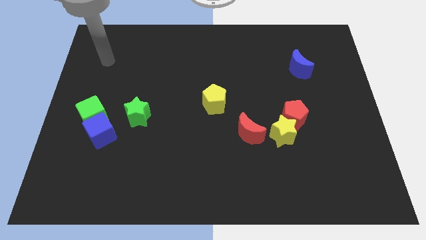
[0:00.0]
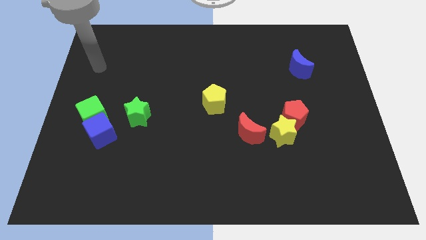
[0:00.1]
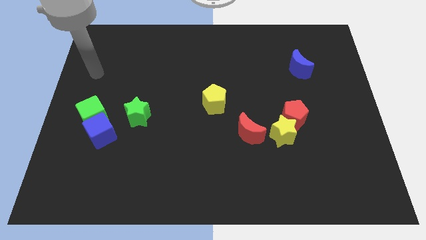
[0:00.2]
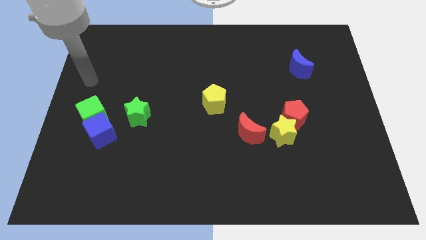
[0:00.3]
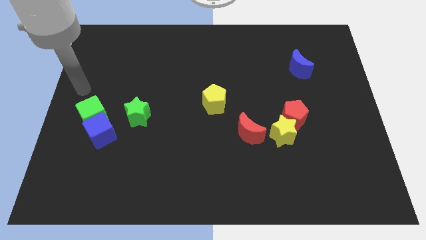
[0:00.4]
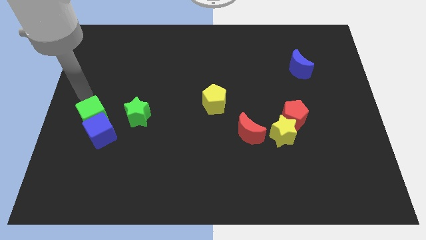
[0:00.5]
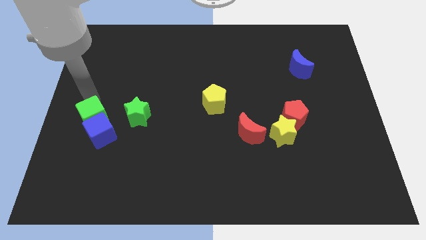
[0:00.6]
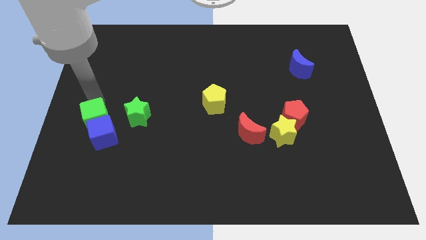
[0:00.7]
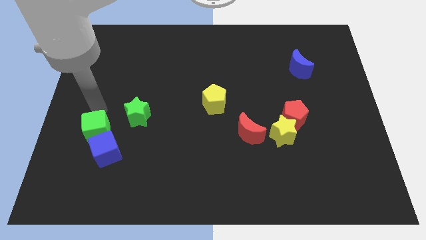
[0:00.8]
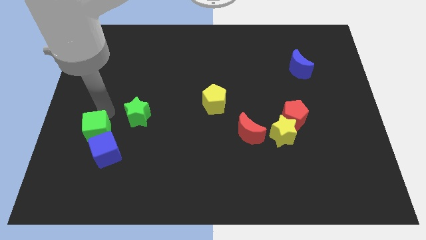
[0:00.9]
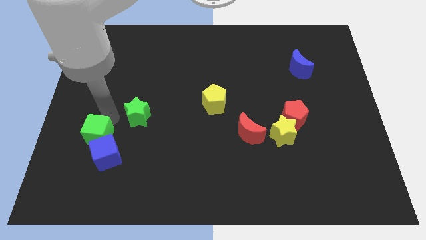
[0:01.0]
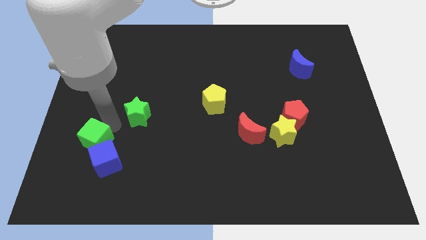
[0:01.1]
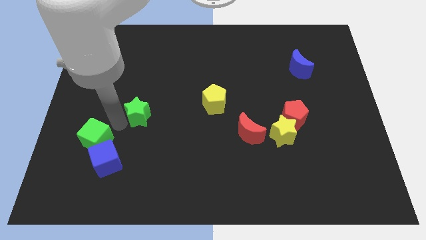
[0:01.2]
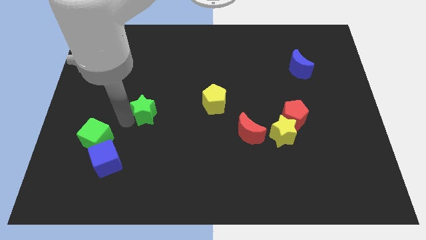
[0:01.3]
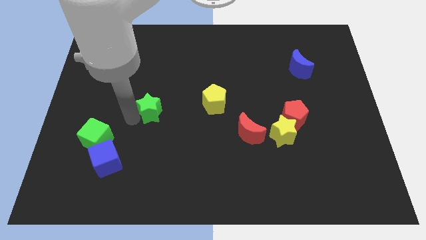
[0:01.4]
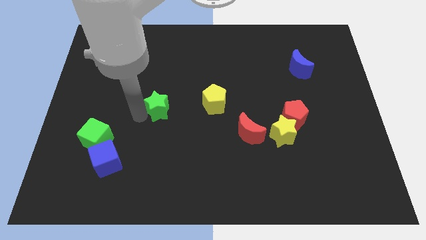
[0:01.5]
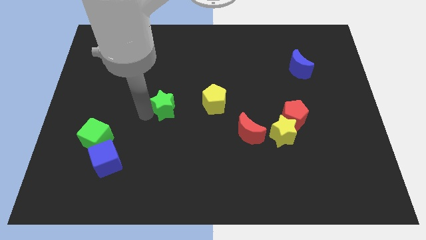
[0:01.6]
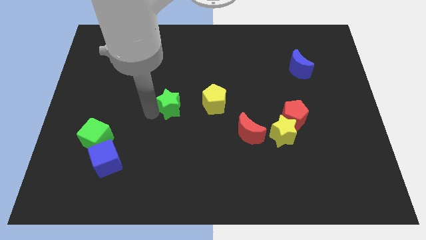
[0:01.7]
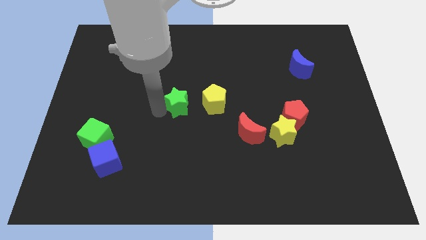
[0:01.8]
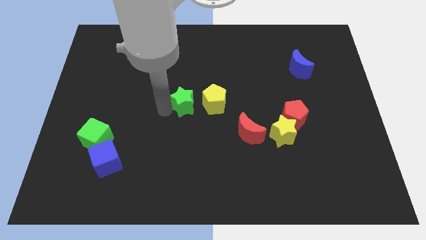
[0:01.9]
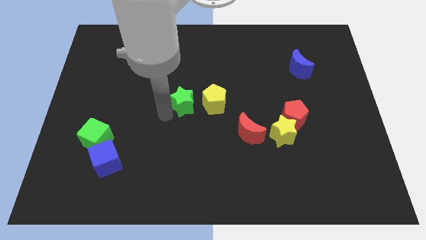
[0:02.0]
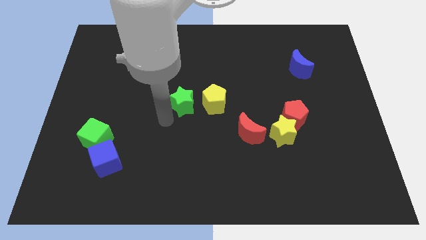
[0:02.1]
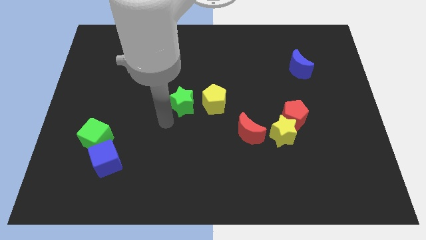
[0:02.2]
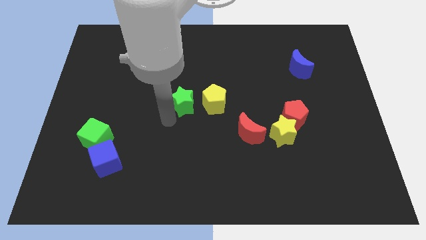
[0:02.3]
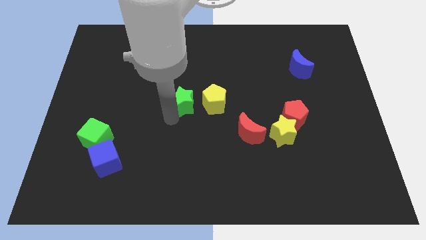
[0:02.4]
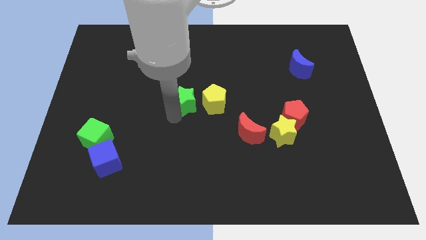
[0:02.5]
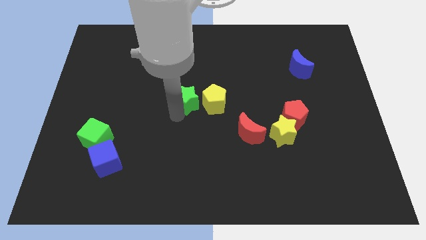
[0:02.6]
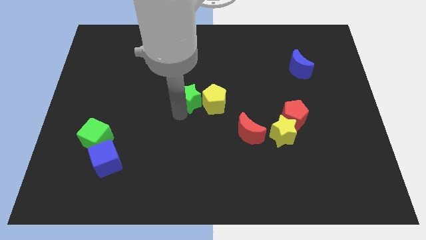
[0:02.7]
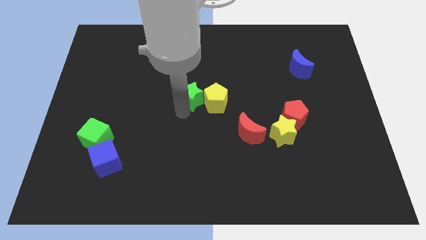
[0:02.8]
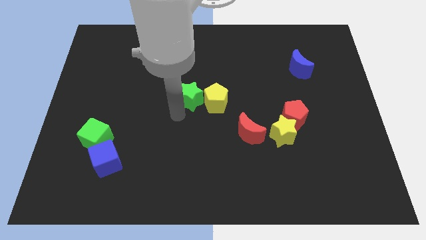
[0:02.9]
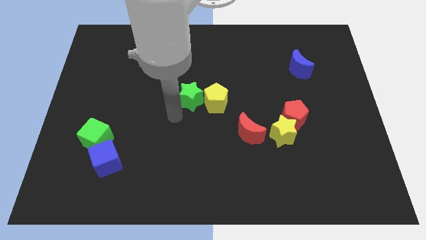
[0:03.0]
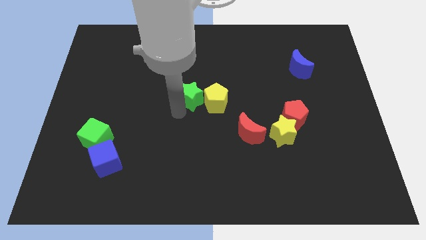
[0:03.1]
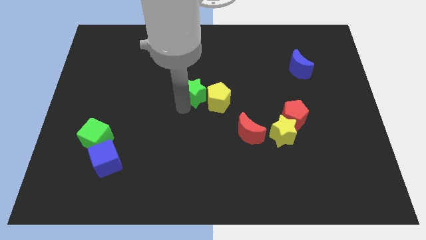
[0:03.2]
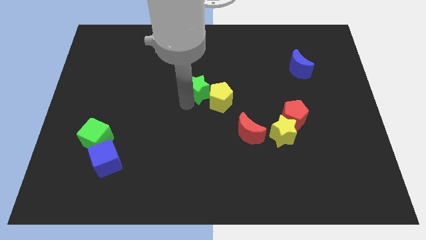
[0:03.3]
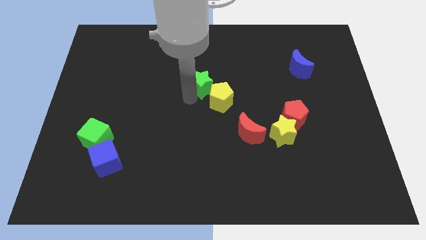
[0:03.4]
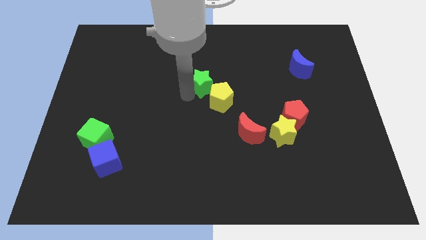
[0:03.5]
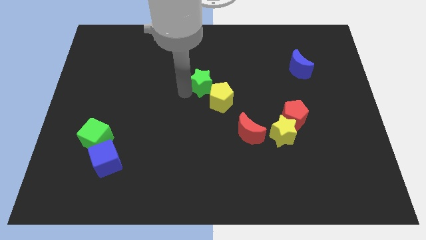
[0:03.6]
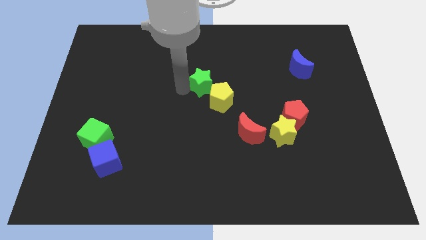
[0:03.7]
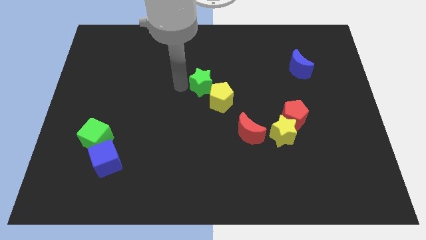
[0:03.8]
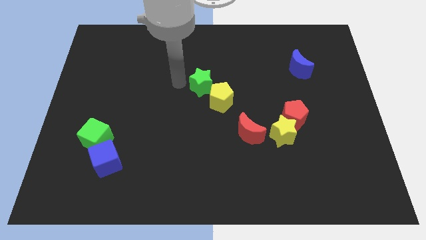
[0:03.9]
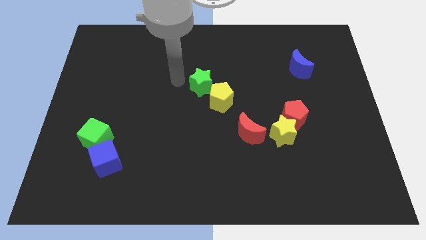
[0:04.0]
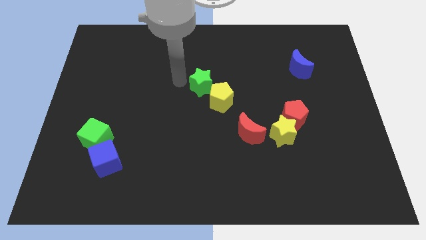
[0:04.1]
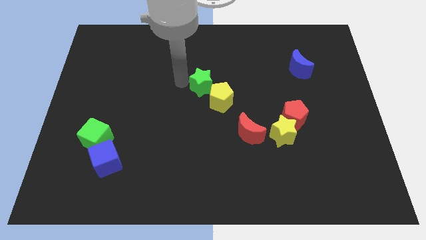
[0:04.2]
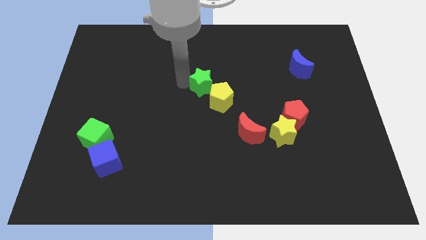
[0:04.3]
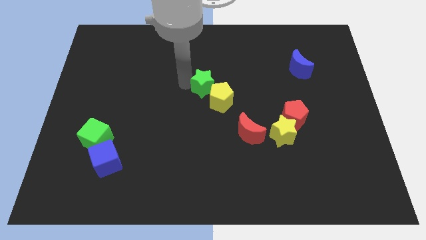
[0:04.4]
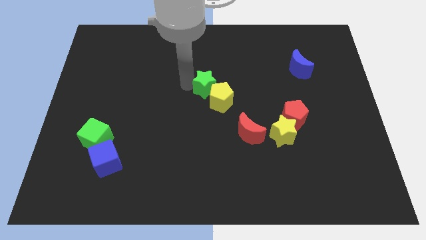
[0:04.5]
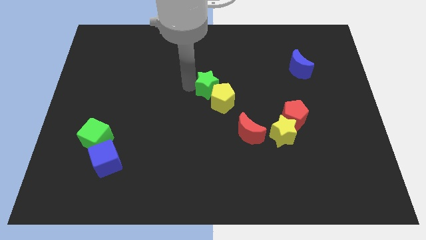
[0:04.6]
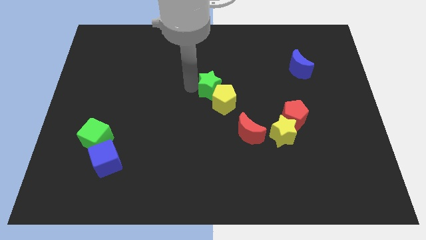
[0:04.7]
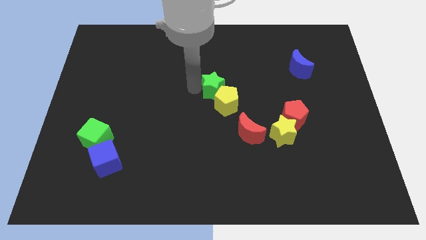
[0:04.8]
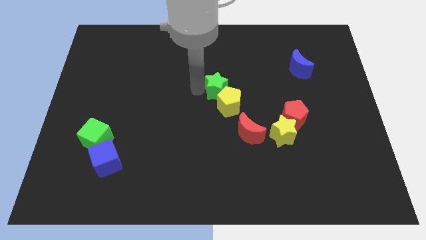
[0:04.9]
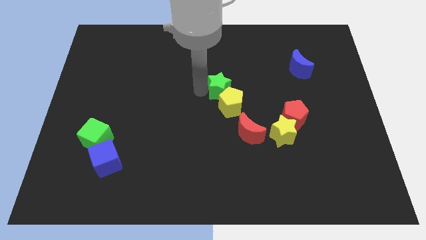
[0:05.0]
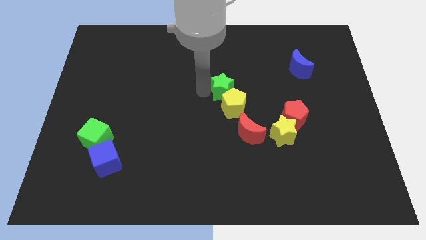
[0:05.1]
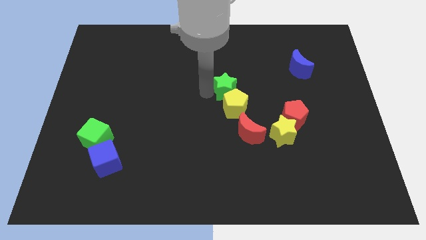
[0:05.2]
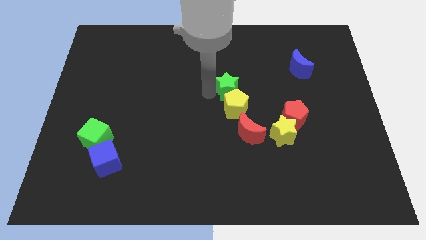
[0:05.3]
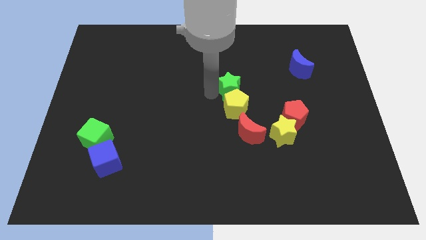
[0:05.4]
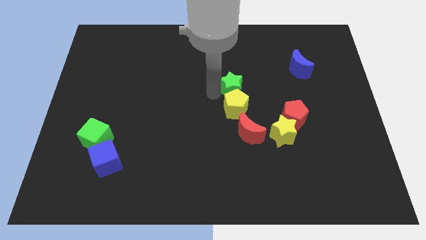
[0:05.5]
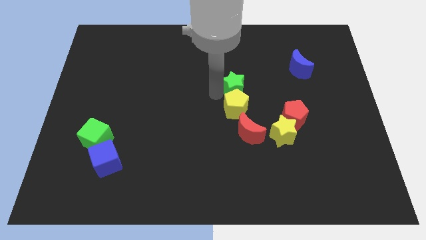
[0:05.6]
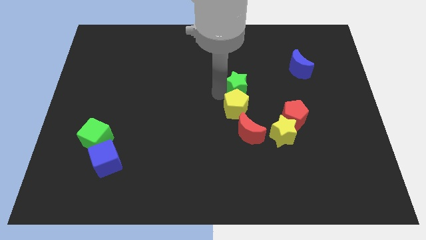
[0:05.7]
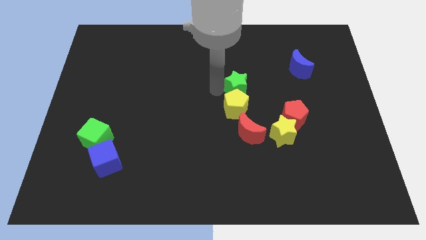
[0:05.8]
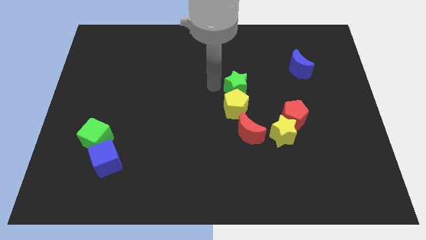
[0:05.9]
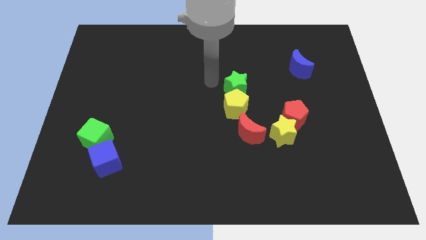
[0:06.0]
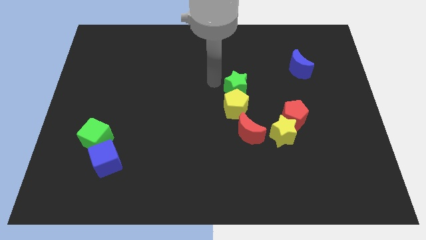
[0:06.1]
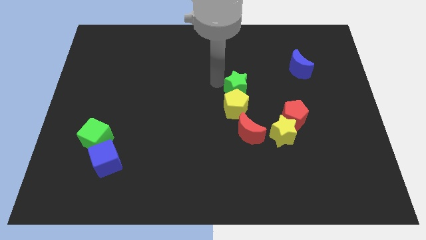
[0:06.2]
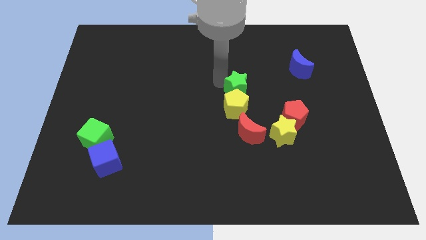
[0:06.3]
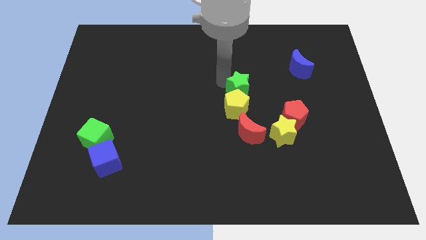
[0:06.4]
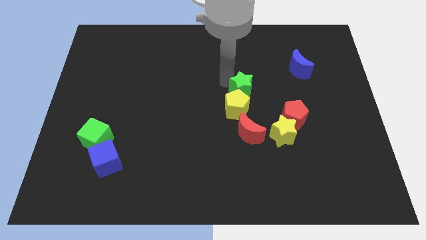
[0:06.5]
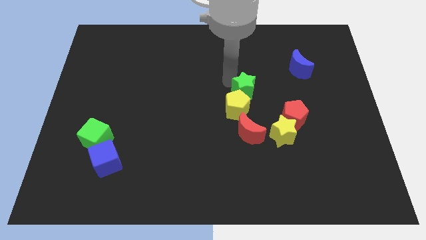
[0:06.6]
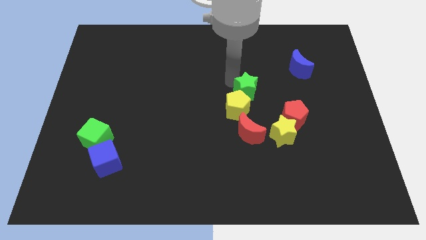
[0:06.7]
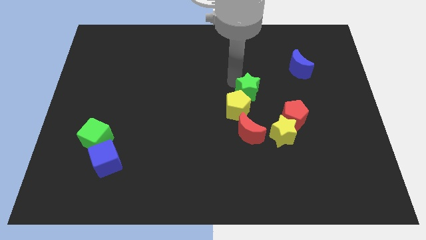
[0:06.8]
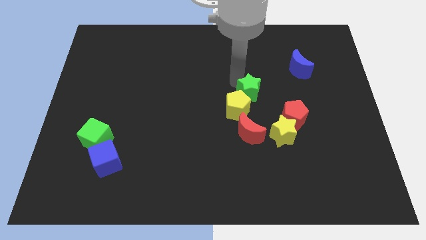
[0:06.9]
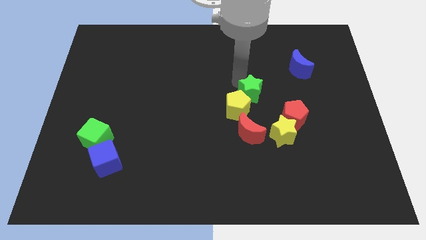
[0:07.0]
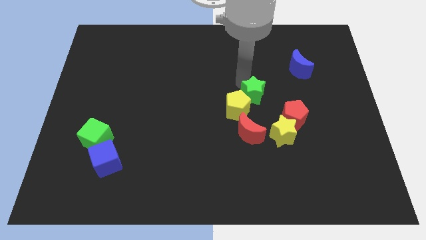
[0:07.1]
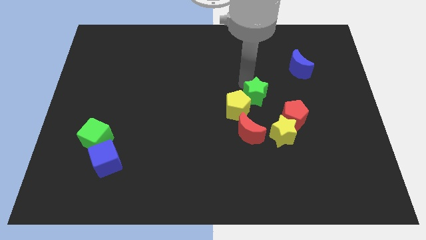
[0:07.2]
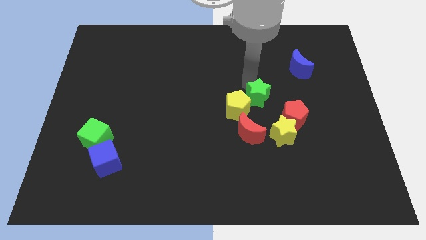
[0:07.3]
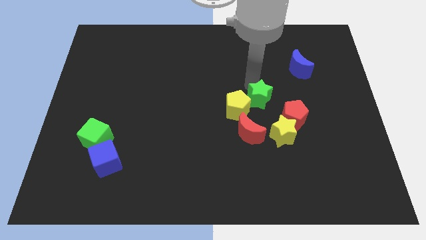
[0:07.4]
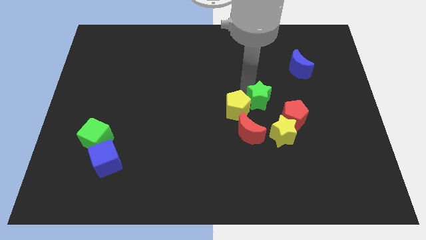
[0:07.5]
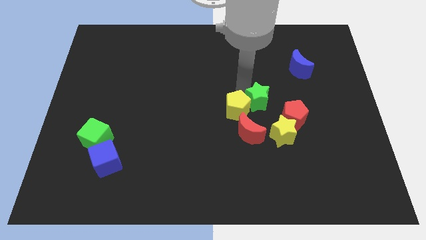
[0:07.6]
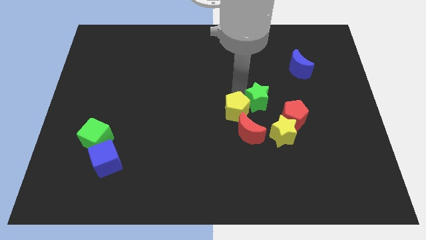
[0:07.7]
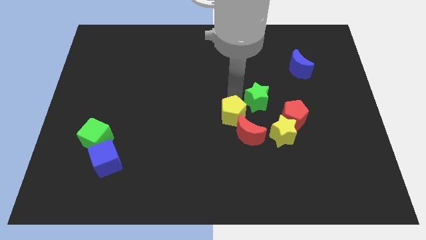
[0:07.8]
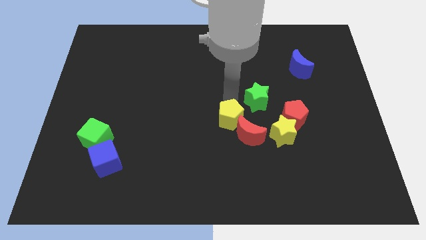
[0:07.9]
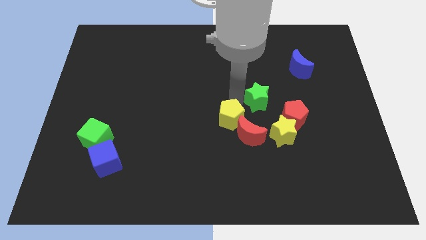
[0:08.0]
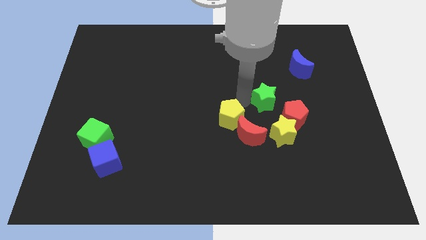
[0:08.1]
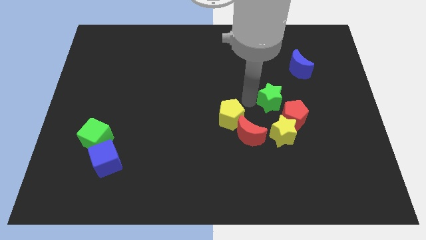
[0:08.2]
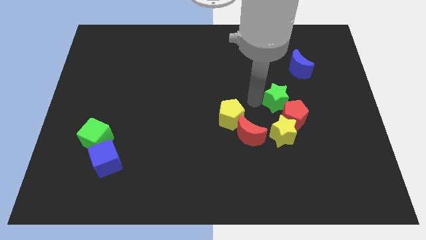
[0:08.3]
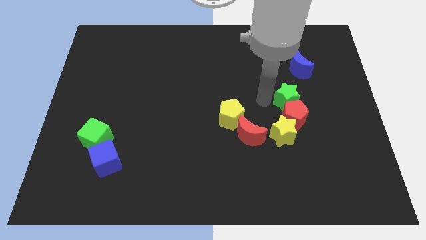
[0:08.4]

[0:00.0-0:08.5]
move the green star to the top right side of the red pentagon
